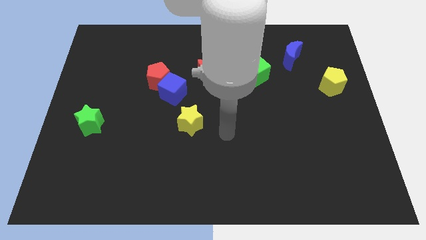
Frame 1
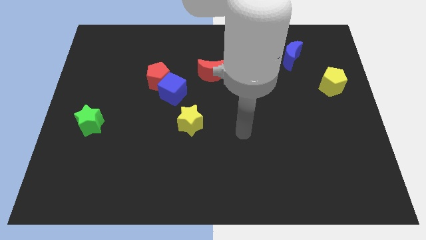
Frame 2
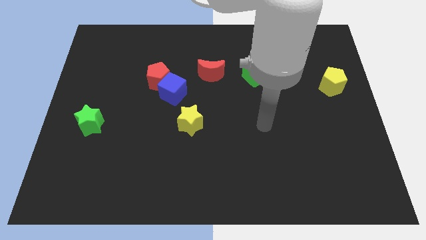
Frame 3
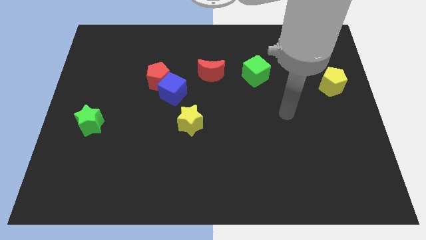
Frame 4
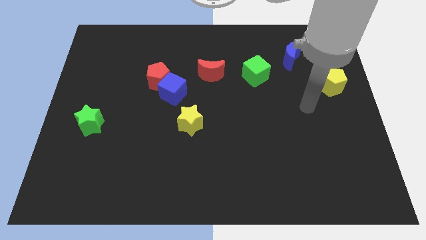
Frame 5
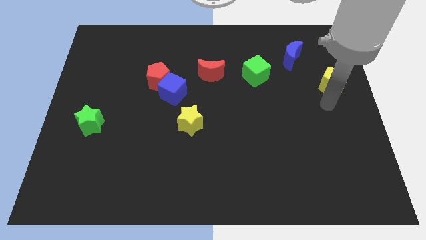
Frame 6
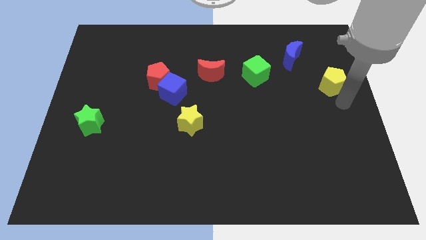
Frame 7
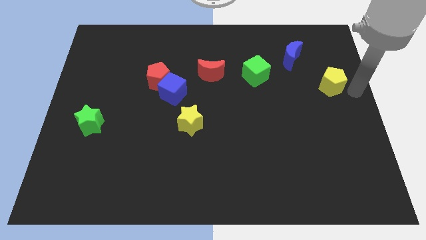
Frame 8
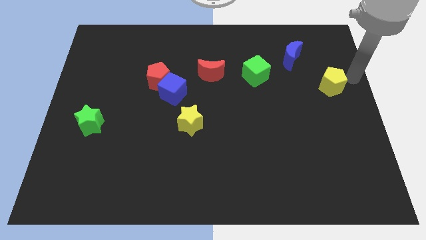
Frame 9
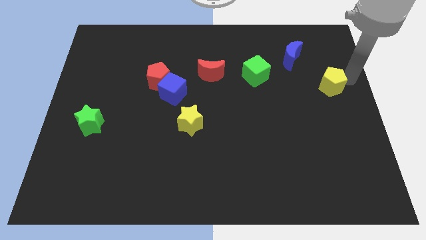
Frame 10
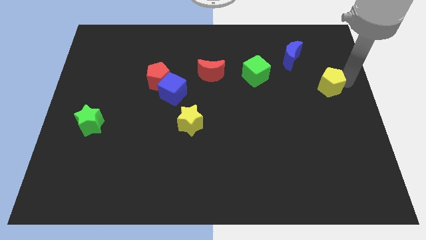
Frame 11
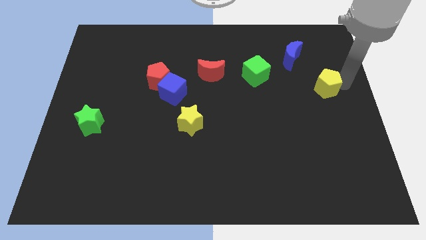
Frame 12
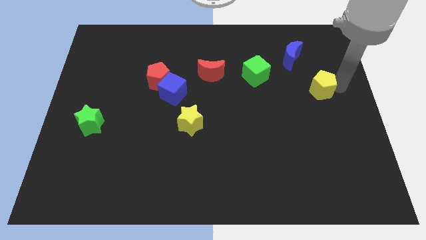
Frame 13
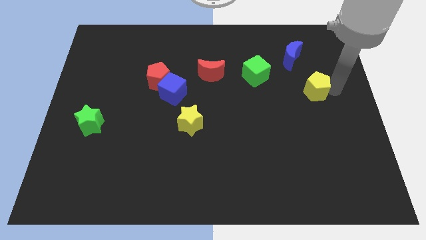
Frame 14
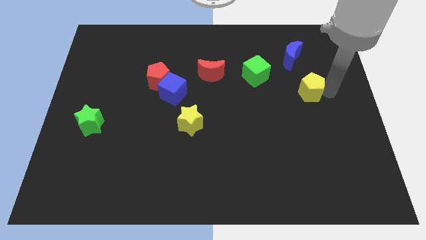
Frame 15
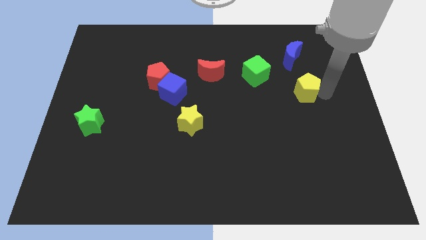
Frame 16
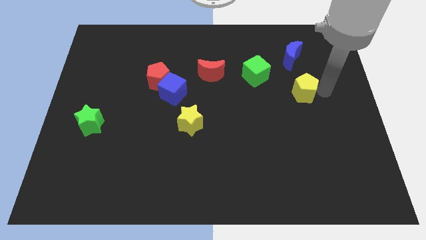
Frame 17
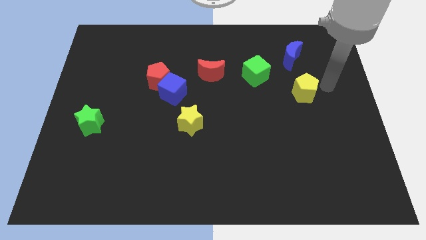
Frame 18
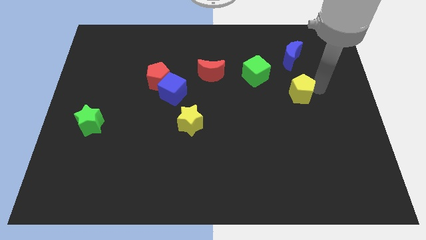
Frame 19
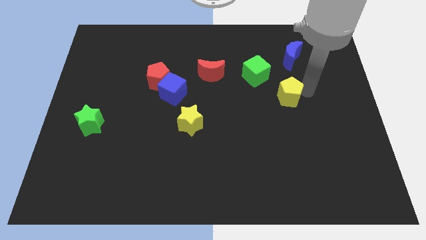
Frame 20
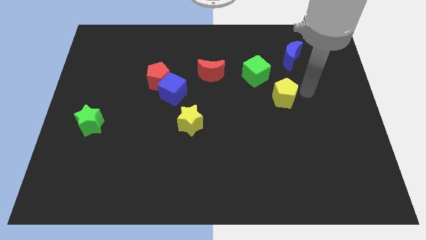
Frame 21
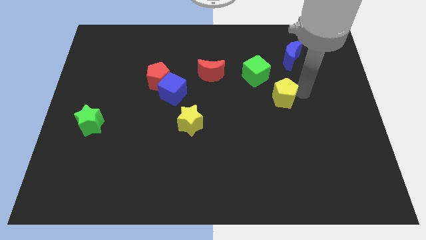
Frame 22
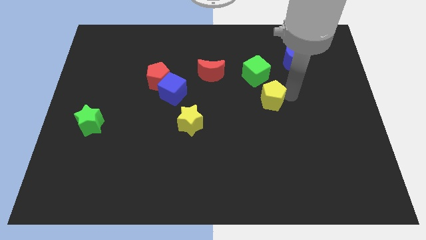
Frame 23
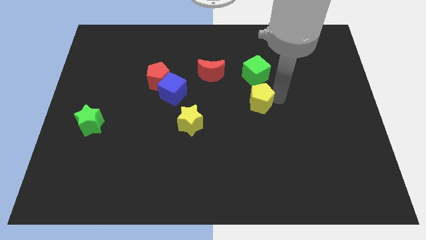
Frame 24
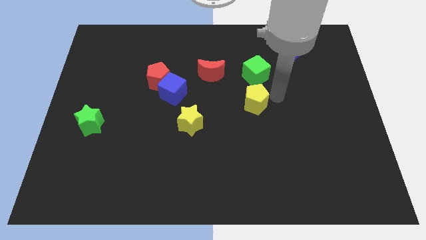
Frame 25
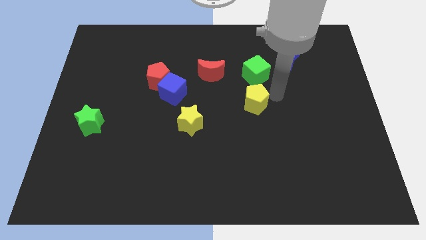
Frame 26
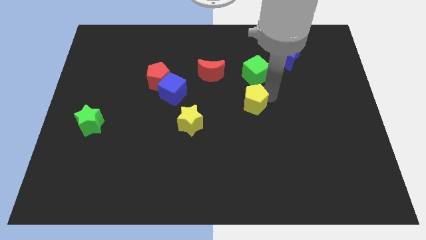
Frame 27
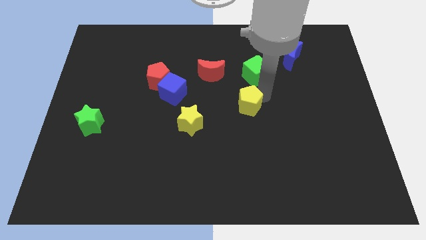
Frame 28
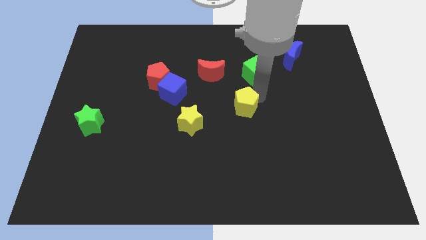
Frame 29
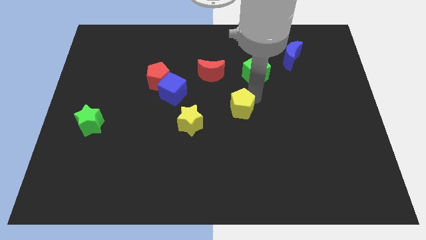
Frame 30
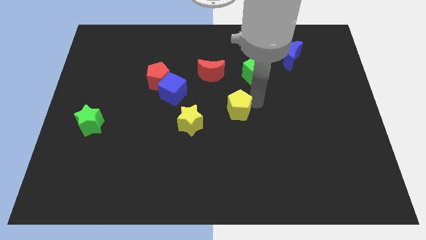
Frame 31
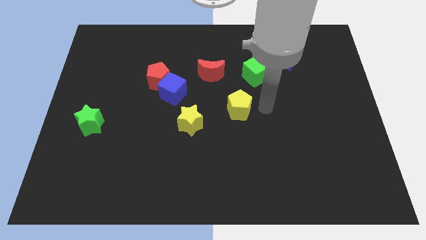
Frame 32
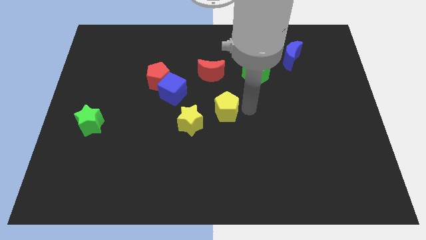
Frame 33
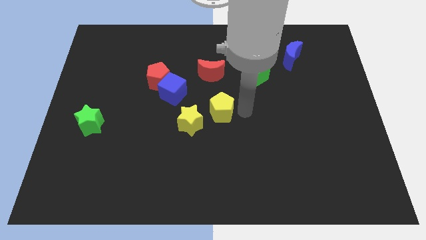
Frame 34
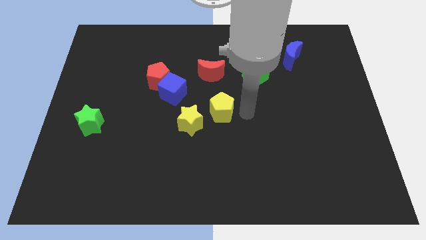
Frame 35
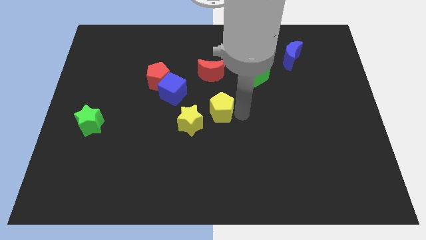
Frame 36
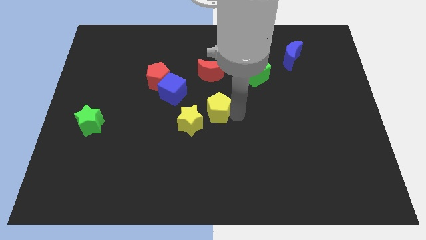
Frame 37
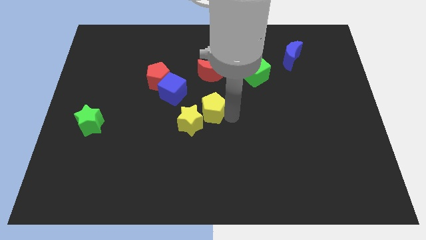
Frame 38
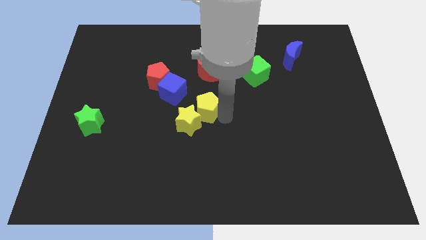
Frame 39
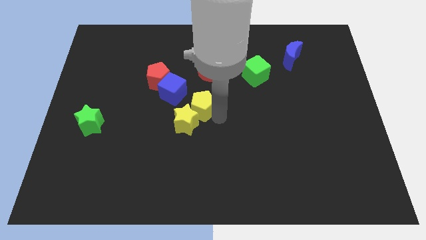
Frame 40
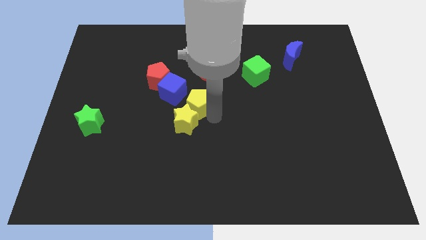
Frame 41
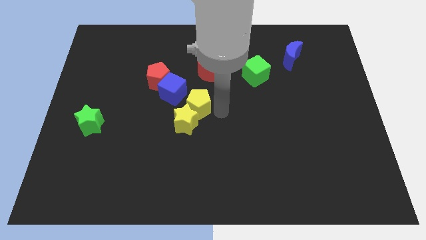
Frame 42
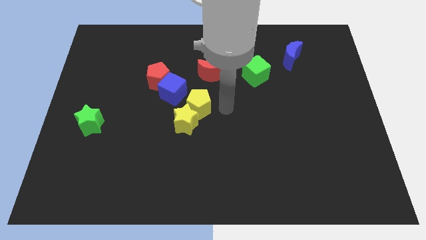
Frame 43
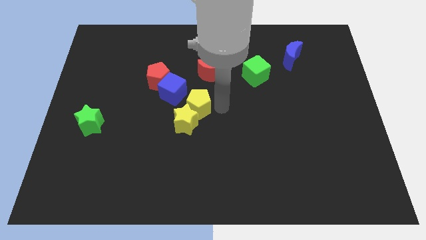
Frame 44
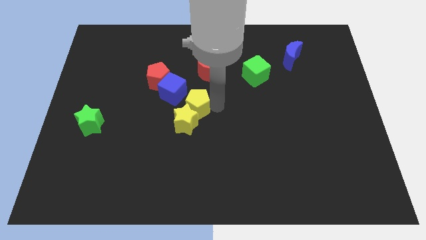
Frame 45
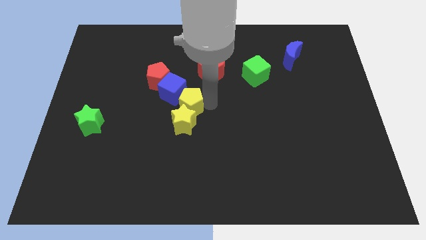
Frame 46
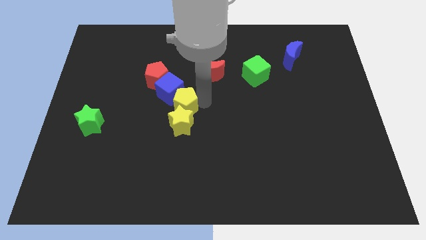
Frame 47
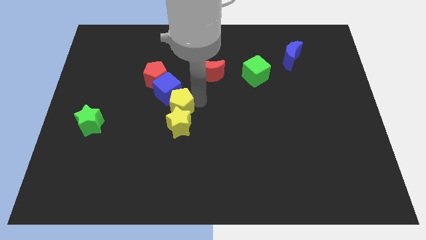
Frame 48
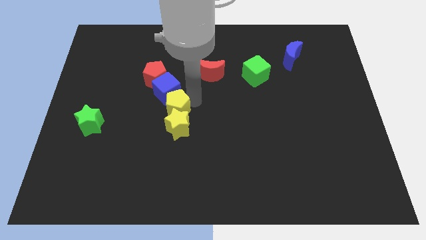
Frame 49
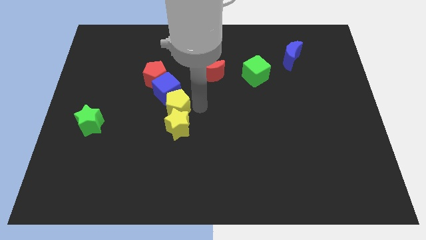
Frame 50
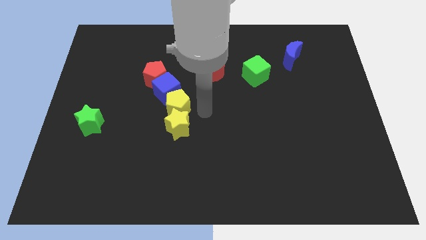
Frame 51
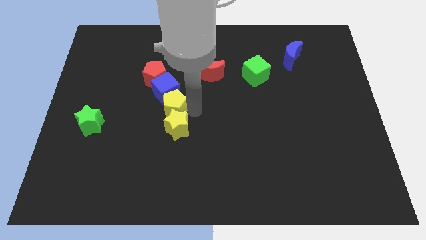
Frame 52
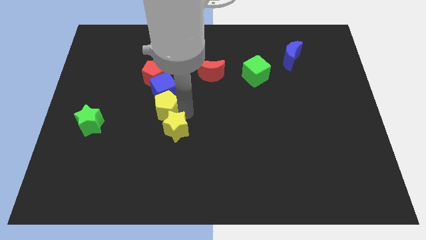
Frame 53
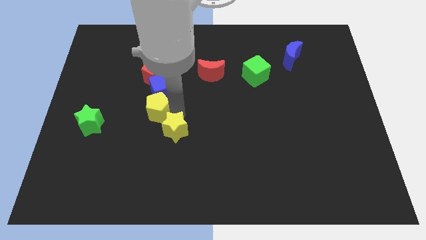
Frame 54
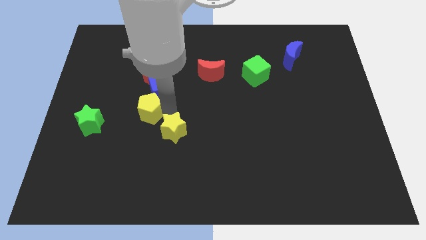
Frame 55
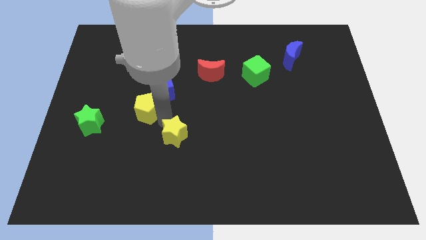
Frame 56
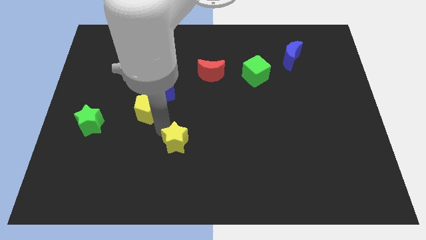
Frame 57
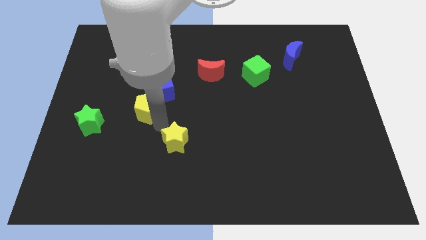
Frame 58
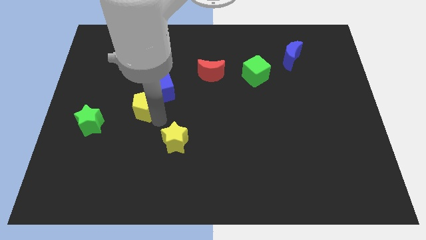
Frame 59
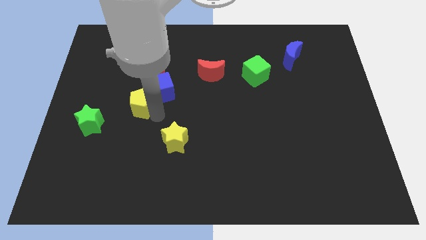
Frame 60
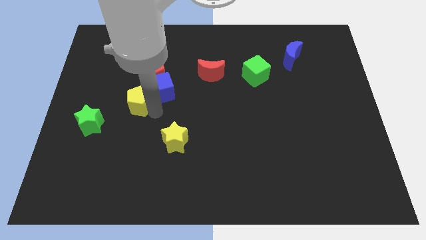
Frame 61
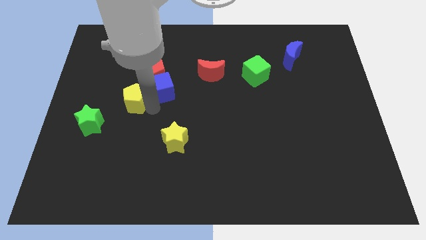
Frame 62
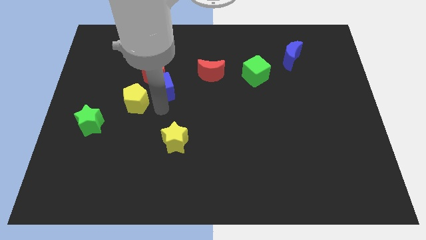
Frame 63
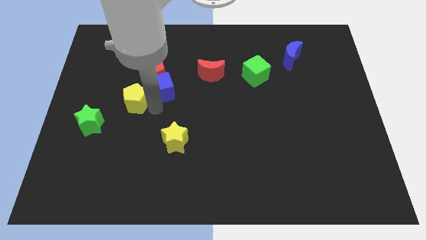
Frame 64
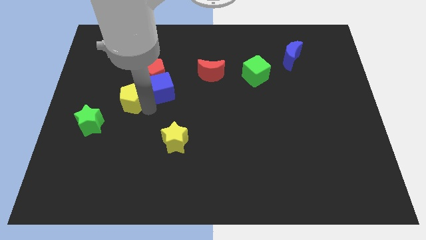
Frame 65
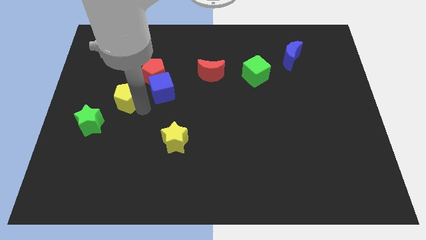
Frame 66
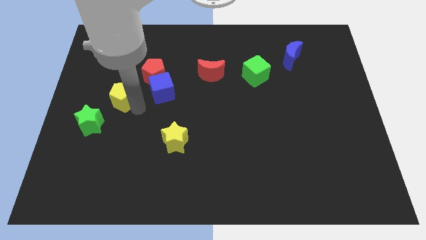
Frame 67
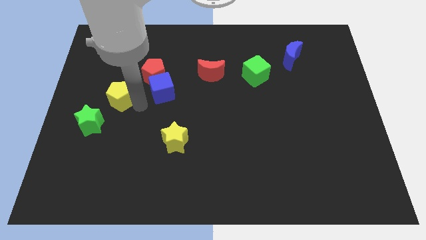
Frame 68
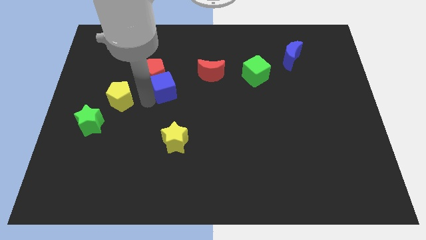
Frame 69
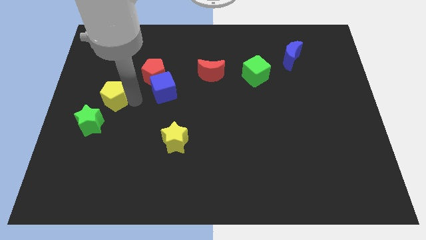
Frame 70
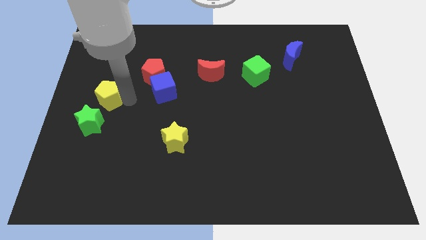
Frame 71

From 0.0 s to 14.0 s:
push the yellow pentagon to the center left
